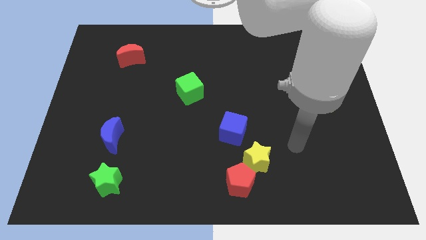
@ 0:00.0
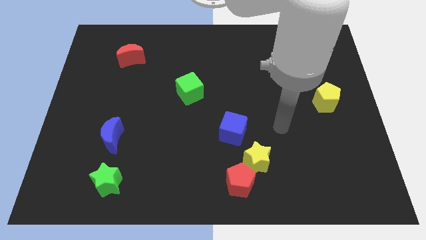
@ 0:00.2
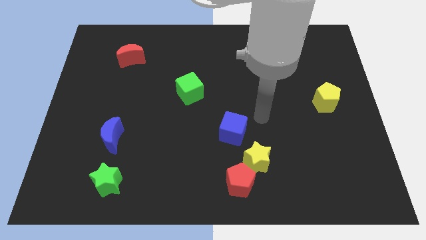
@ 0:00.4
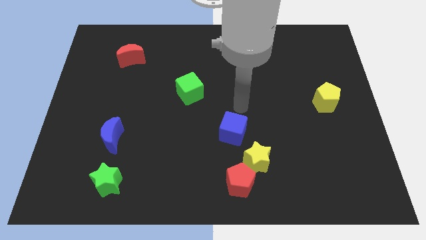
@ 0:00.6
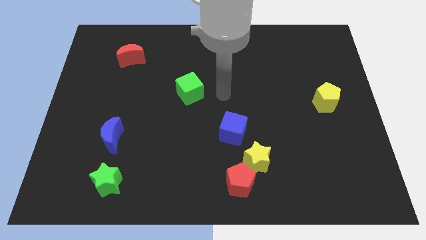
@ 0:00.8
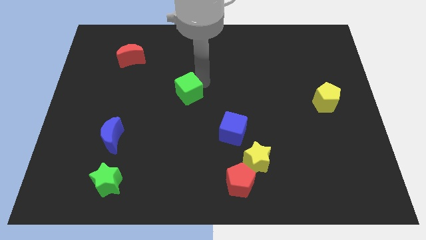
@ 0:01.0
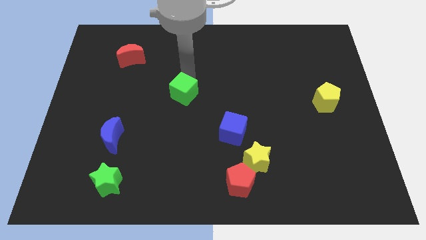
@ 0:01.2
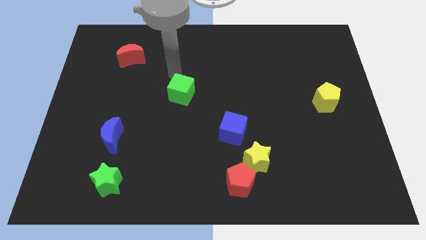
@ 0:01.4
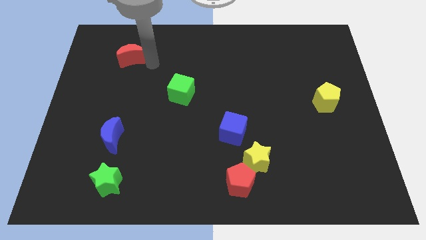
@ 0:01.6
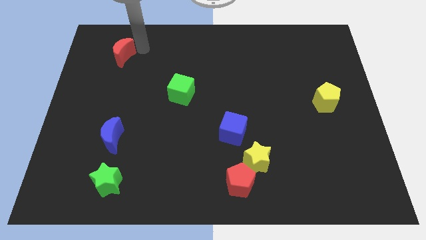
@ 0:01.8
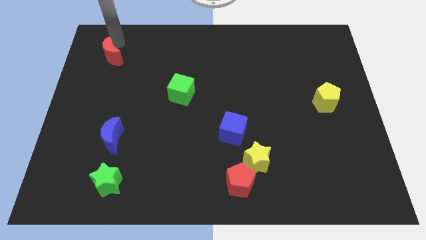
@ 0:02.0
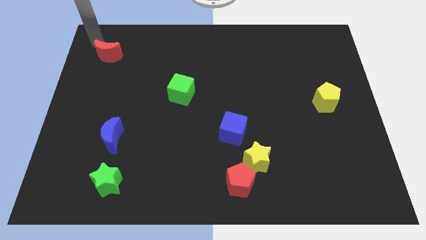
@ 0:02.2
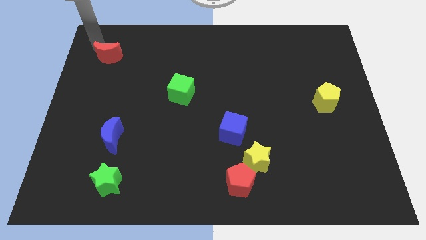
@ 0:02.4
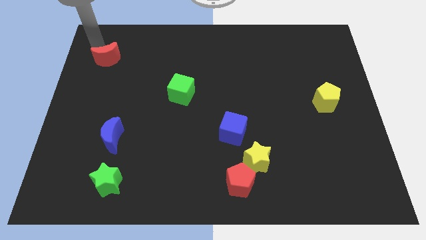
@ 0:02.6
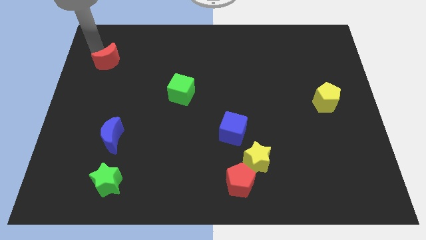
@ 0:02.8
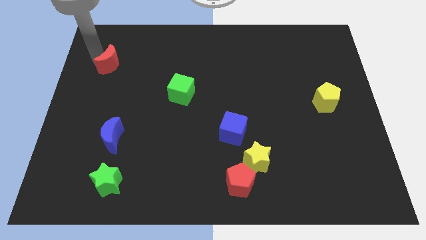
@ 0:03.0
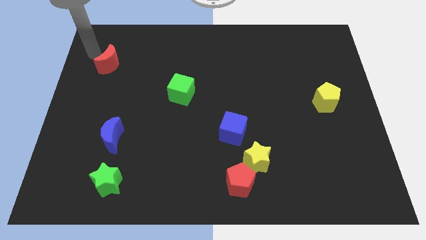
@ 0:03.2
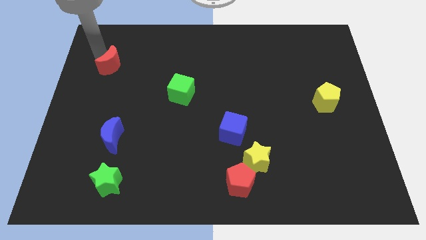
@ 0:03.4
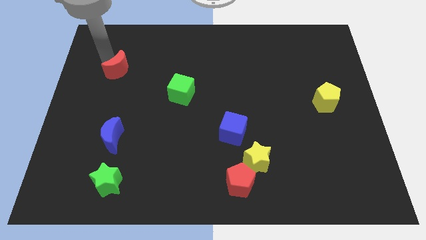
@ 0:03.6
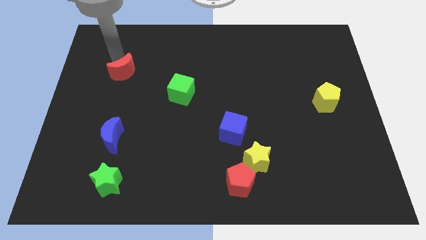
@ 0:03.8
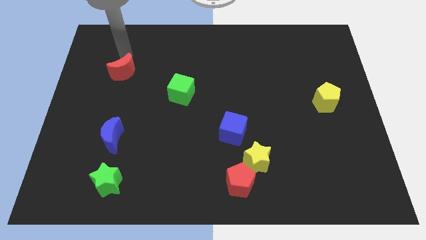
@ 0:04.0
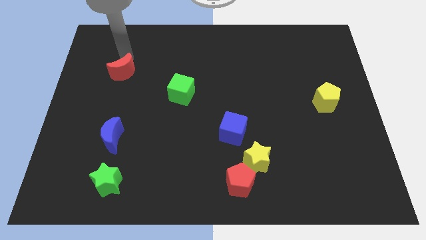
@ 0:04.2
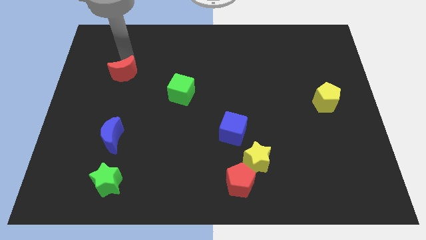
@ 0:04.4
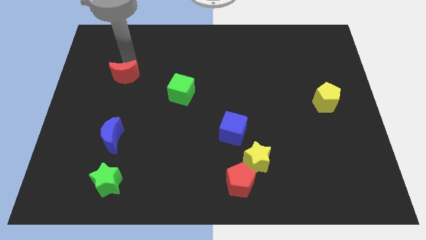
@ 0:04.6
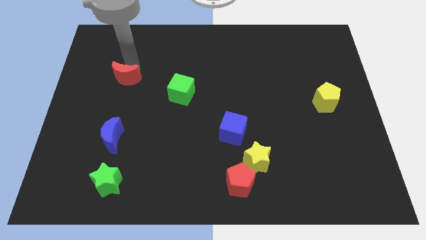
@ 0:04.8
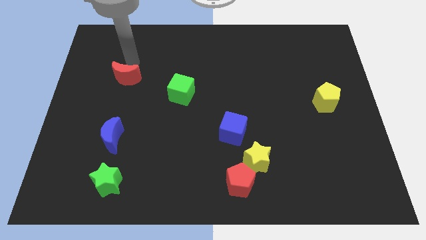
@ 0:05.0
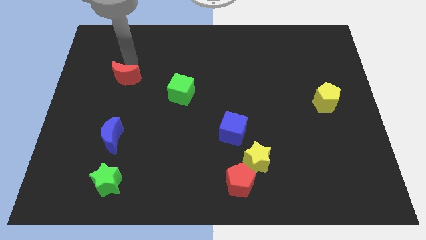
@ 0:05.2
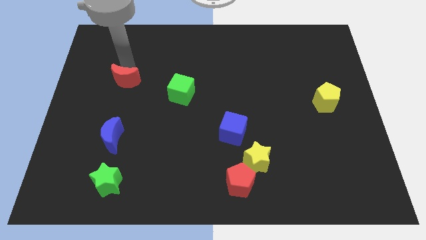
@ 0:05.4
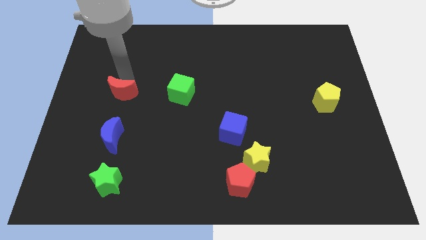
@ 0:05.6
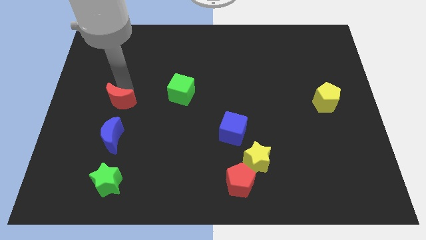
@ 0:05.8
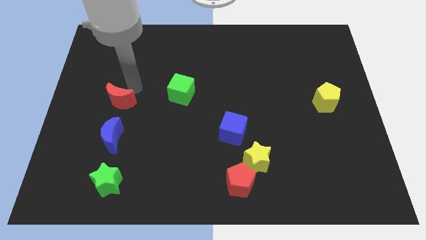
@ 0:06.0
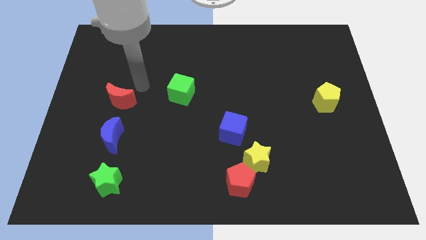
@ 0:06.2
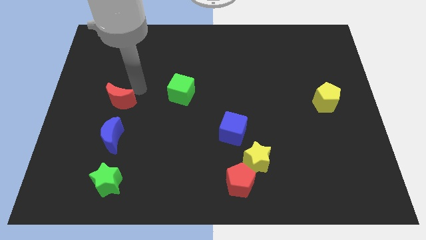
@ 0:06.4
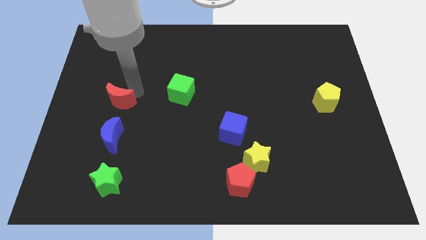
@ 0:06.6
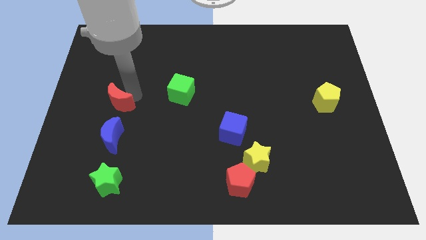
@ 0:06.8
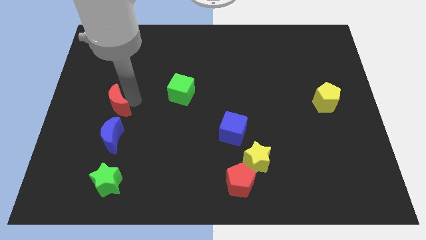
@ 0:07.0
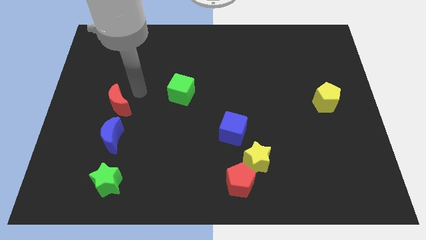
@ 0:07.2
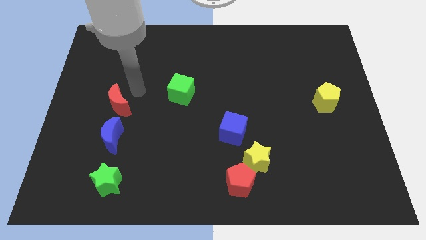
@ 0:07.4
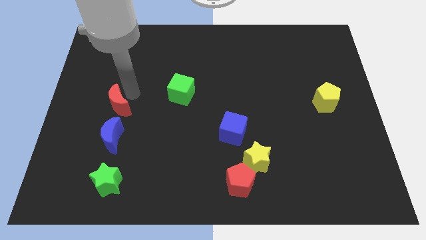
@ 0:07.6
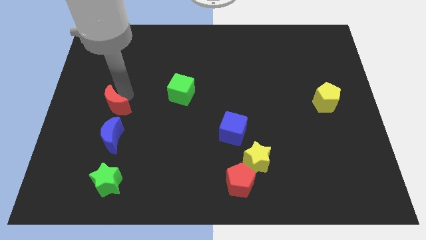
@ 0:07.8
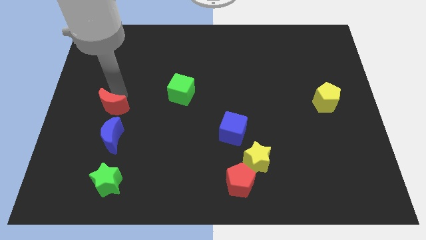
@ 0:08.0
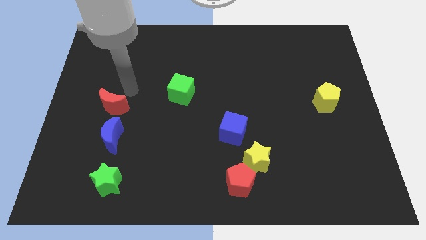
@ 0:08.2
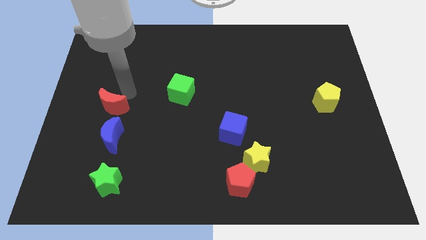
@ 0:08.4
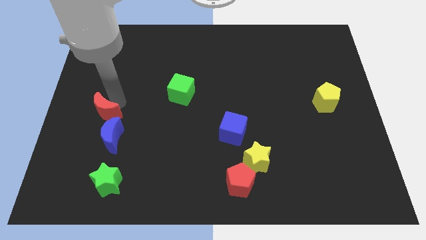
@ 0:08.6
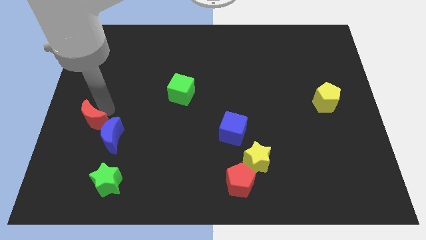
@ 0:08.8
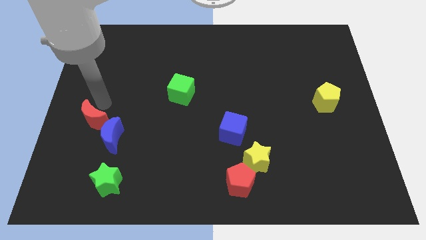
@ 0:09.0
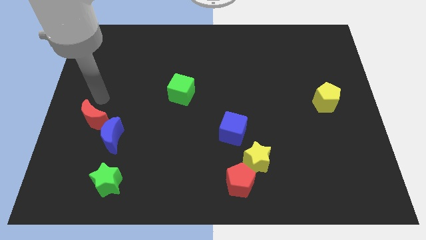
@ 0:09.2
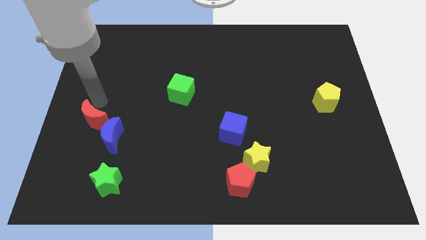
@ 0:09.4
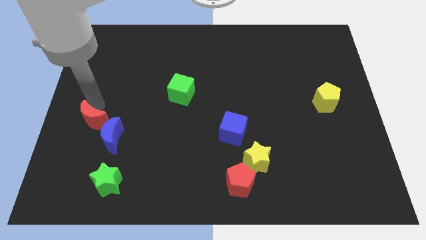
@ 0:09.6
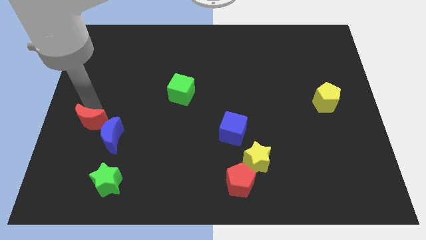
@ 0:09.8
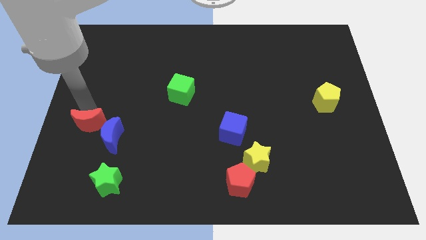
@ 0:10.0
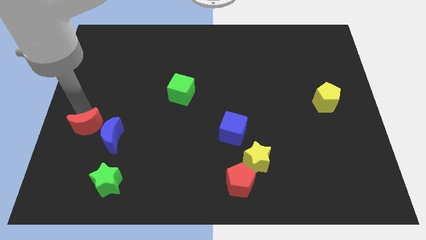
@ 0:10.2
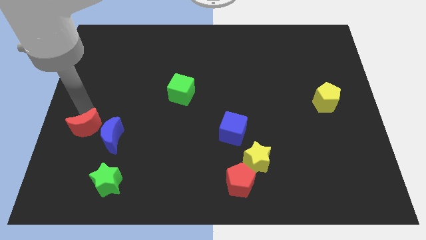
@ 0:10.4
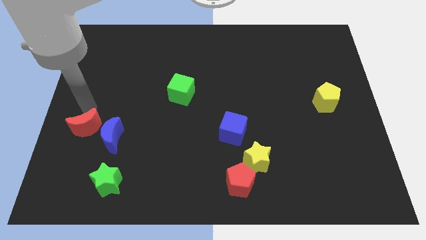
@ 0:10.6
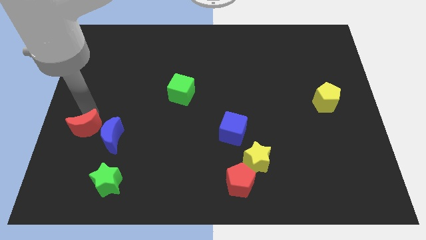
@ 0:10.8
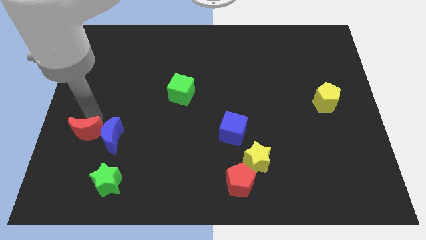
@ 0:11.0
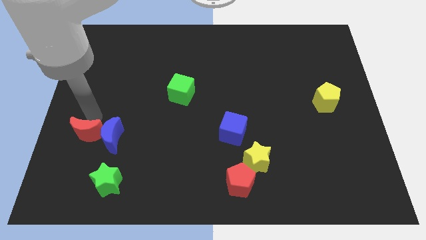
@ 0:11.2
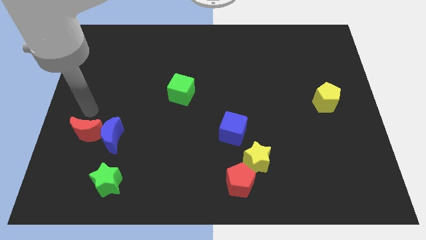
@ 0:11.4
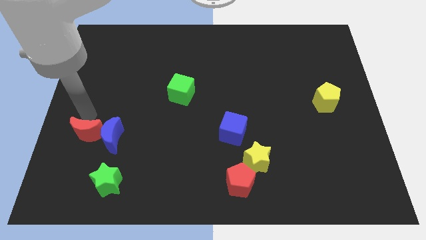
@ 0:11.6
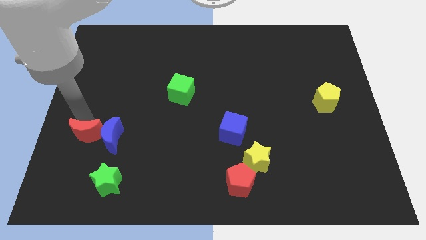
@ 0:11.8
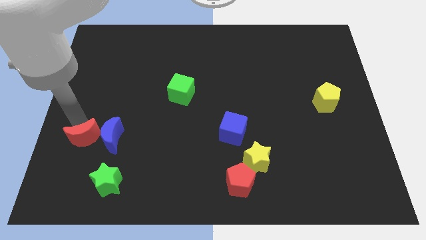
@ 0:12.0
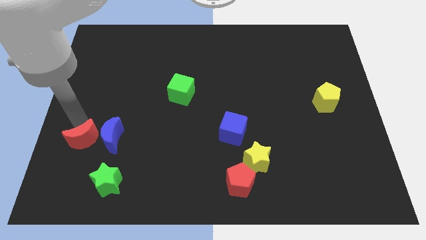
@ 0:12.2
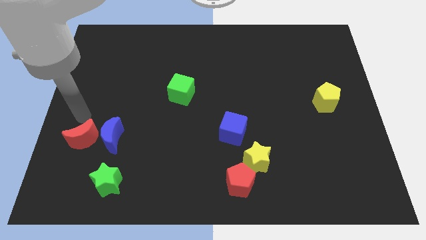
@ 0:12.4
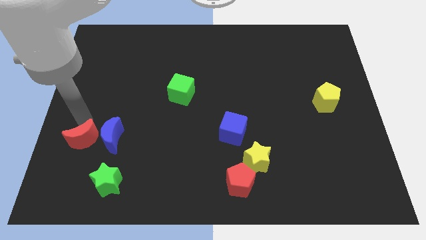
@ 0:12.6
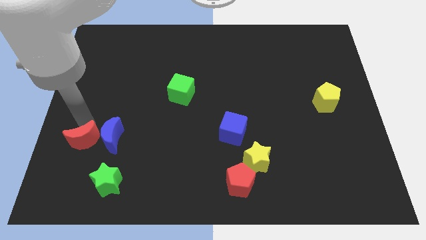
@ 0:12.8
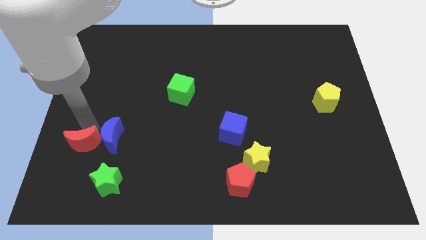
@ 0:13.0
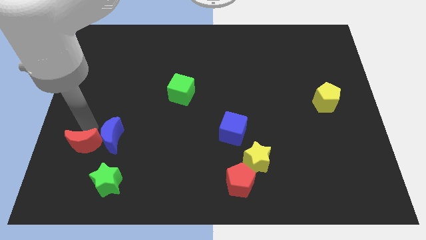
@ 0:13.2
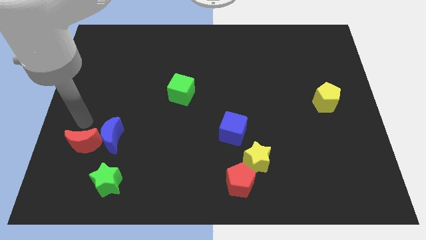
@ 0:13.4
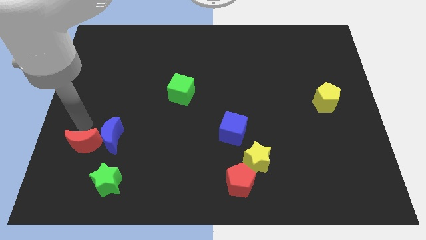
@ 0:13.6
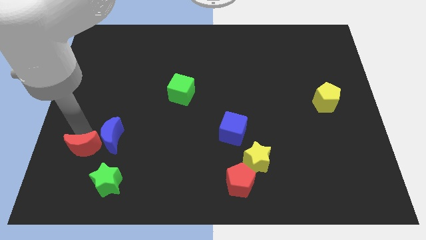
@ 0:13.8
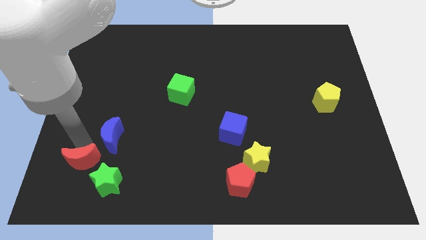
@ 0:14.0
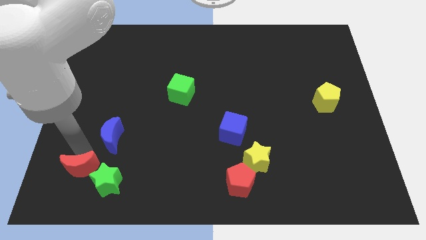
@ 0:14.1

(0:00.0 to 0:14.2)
slide the red moon to the bottom of the blue moon
